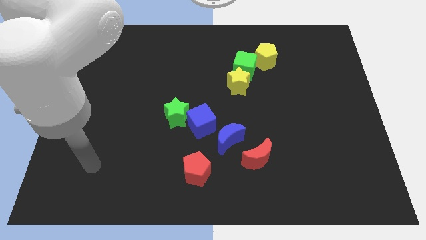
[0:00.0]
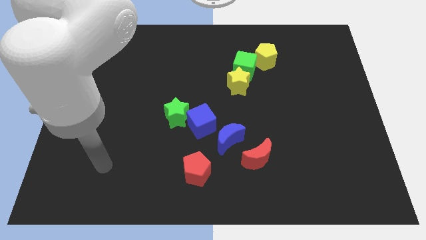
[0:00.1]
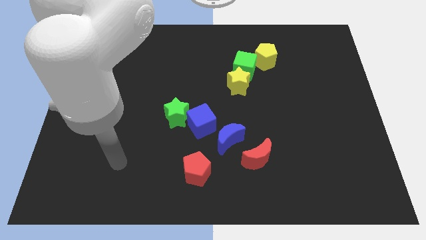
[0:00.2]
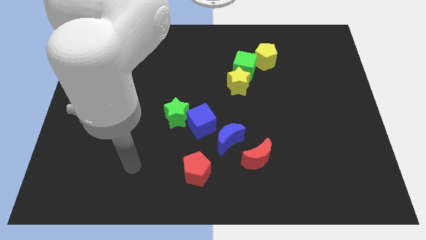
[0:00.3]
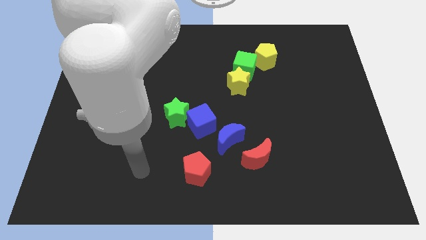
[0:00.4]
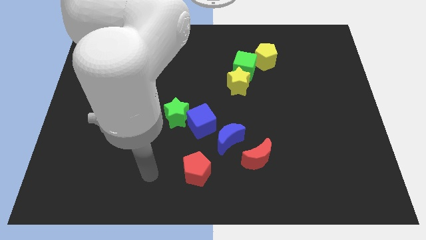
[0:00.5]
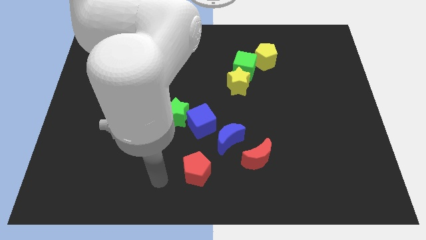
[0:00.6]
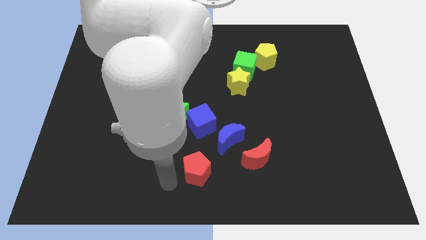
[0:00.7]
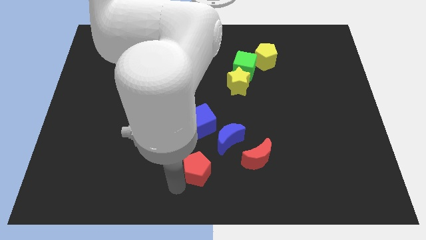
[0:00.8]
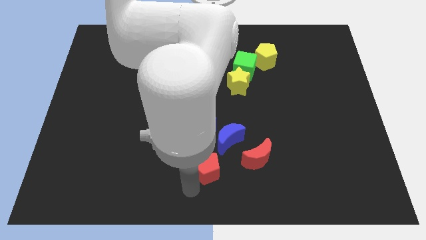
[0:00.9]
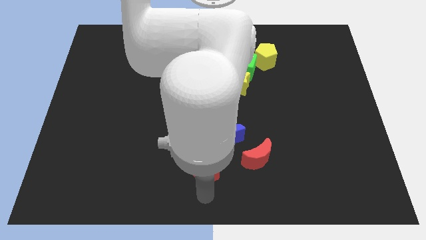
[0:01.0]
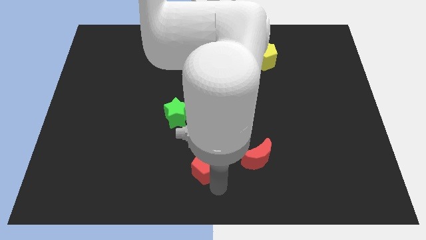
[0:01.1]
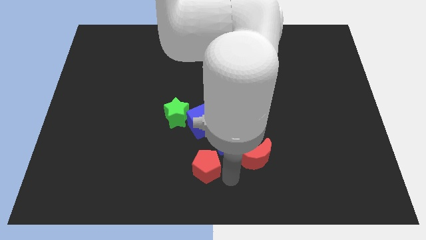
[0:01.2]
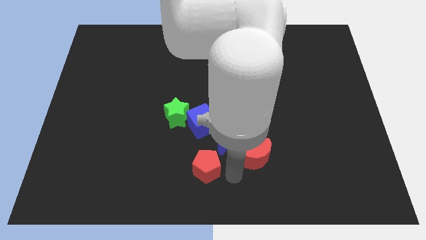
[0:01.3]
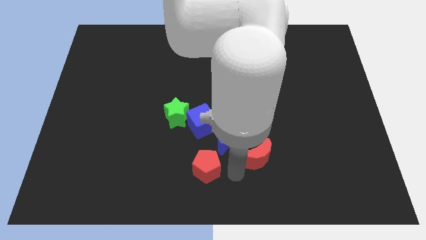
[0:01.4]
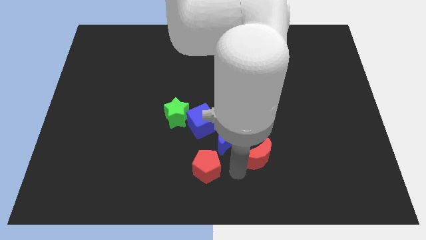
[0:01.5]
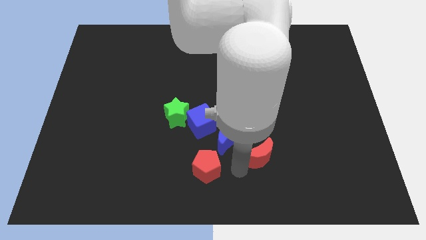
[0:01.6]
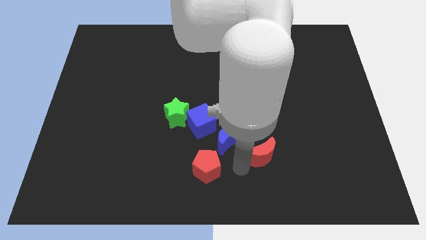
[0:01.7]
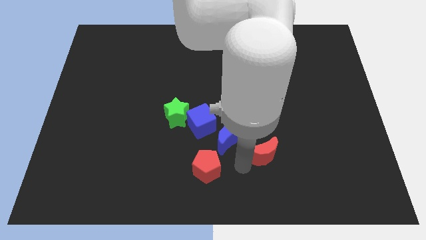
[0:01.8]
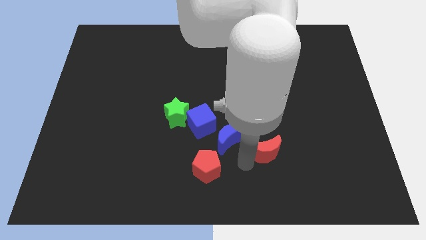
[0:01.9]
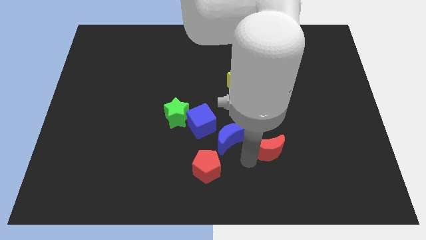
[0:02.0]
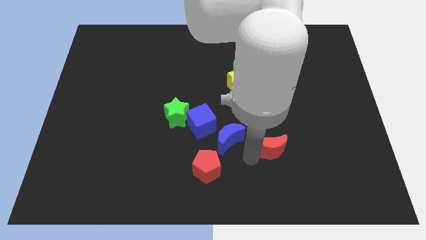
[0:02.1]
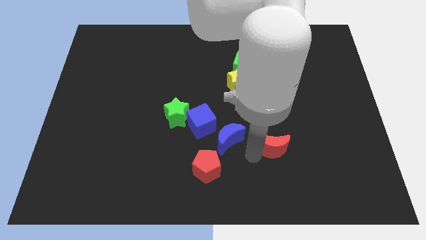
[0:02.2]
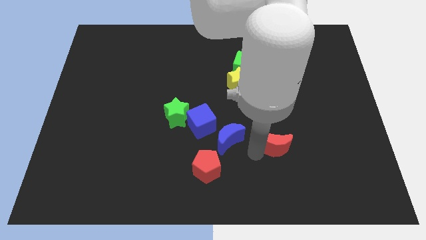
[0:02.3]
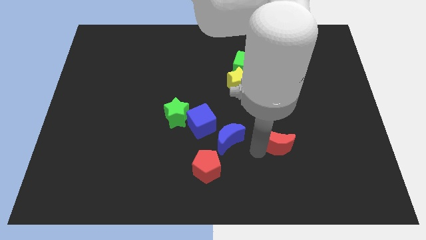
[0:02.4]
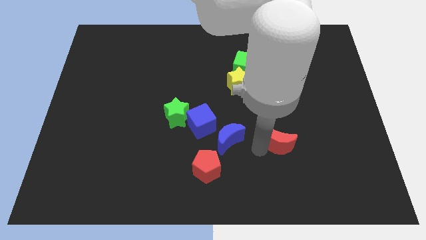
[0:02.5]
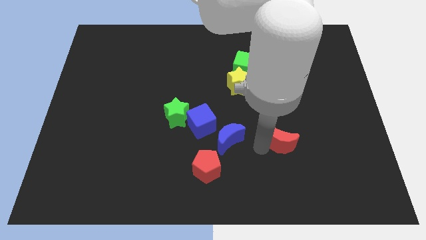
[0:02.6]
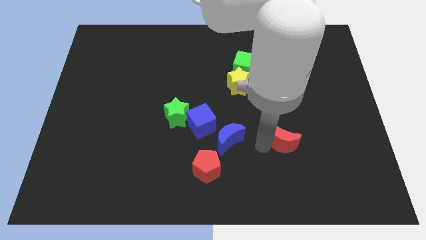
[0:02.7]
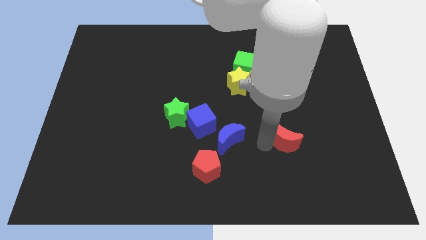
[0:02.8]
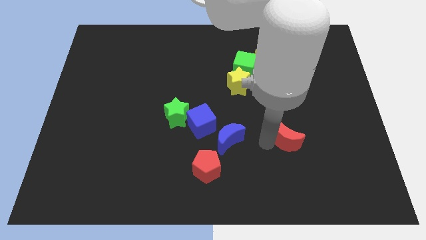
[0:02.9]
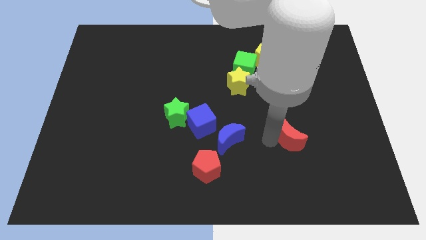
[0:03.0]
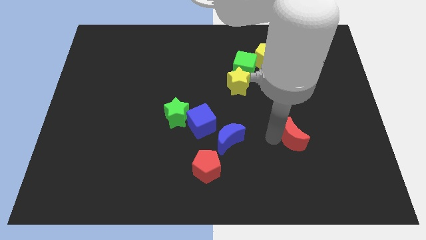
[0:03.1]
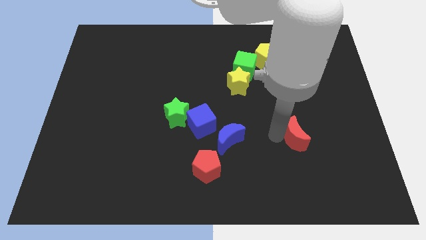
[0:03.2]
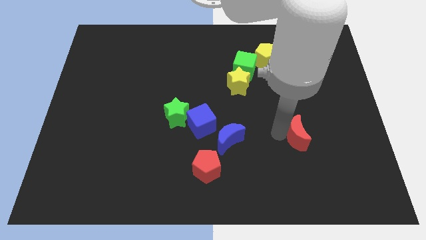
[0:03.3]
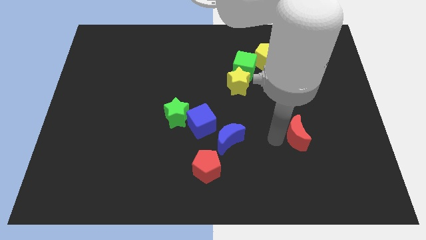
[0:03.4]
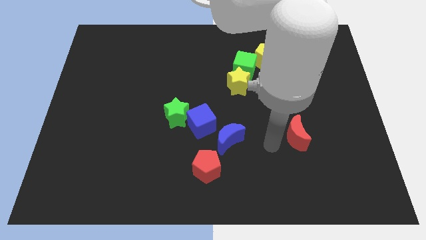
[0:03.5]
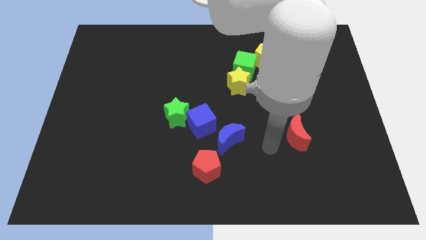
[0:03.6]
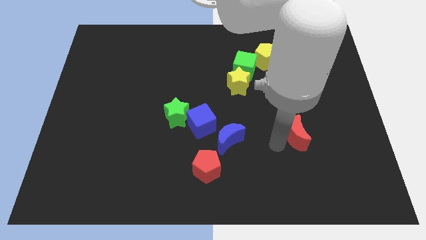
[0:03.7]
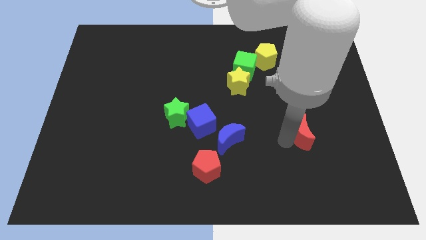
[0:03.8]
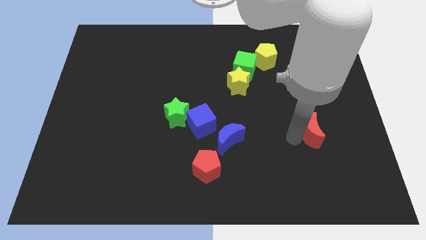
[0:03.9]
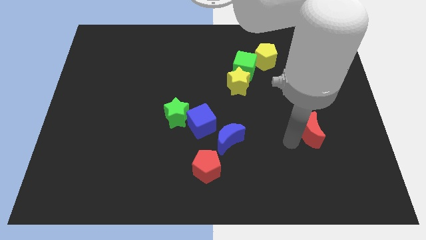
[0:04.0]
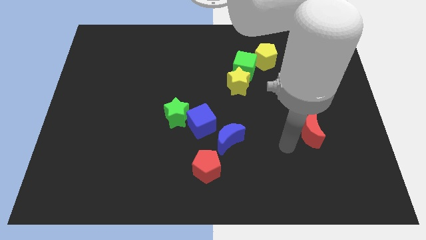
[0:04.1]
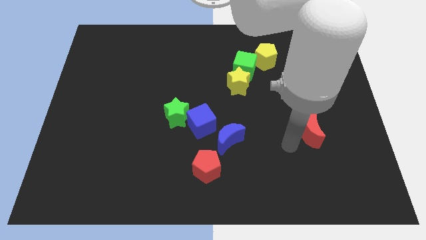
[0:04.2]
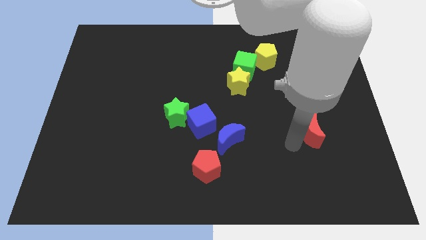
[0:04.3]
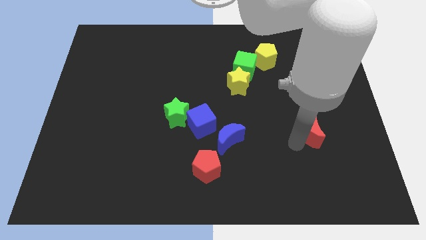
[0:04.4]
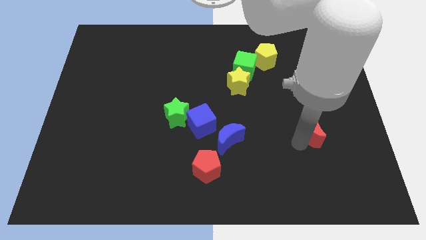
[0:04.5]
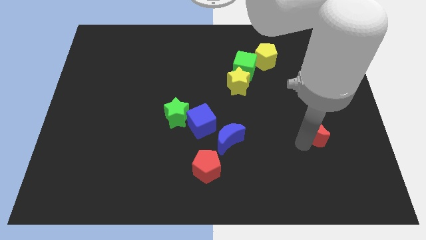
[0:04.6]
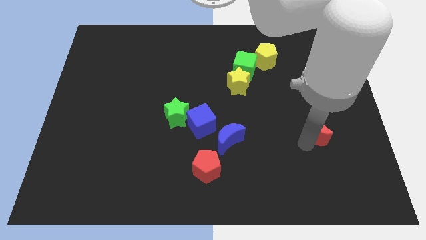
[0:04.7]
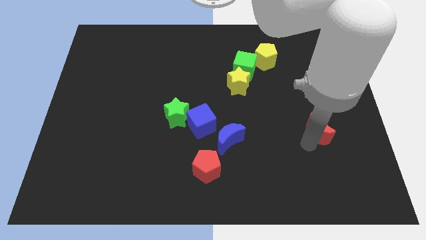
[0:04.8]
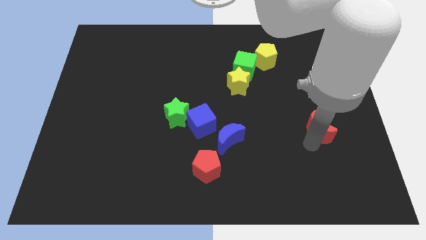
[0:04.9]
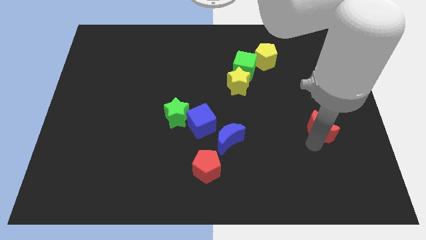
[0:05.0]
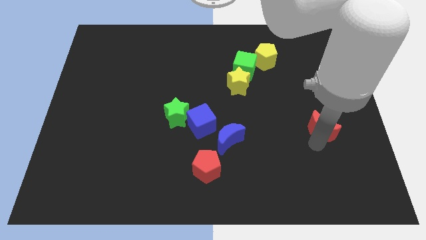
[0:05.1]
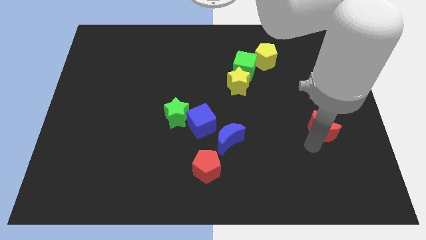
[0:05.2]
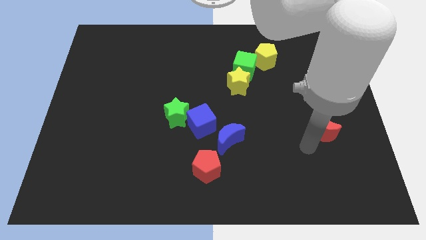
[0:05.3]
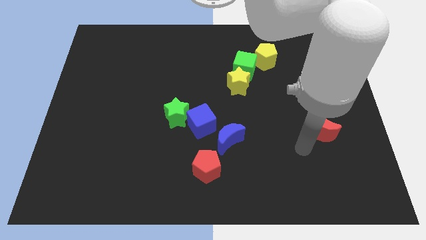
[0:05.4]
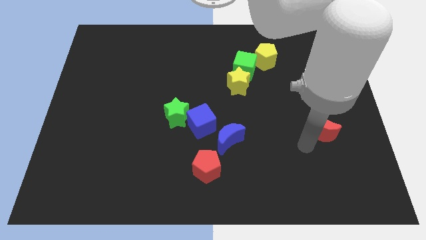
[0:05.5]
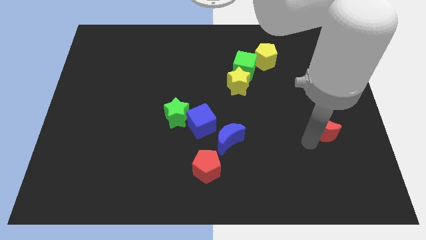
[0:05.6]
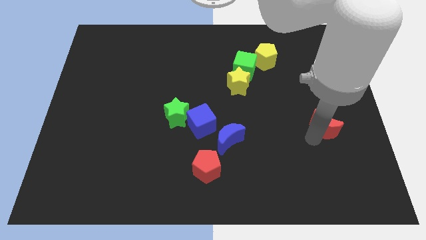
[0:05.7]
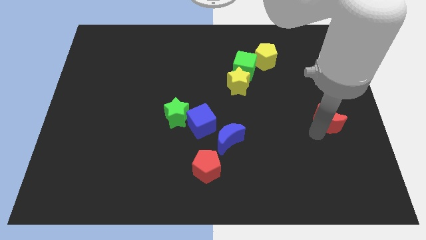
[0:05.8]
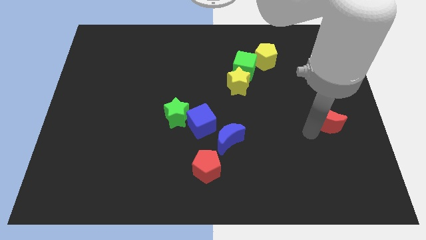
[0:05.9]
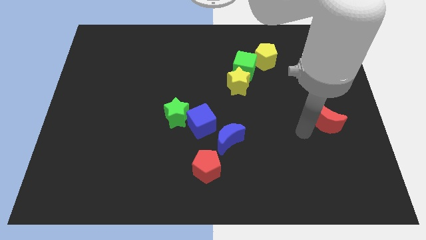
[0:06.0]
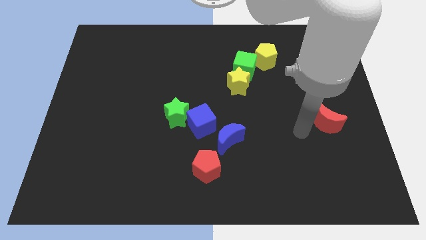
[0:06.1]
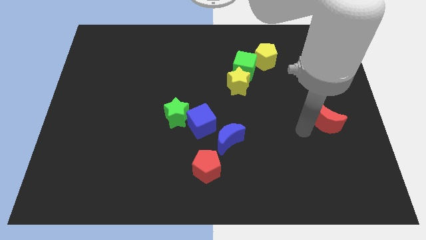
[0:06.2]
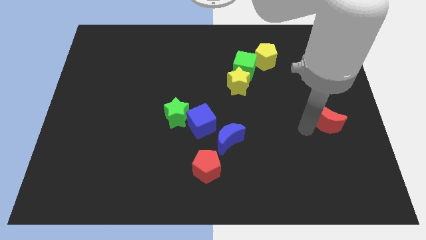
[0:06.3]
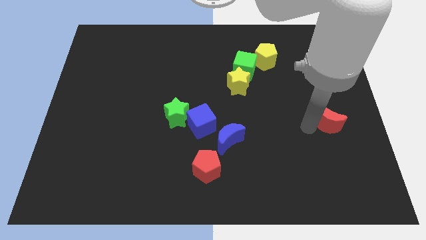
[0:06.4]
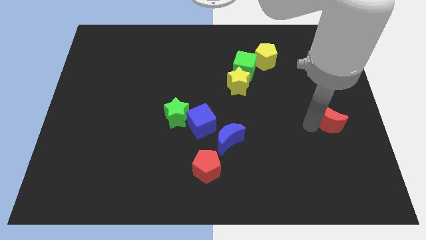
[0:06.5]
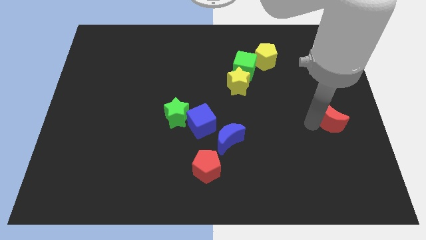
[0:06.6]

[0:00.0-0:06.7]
push the red moon to the center right

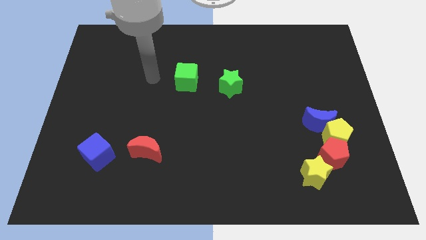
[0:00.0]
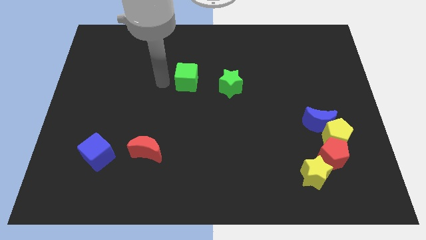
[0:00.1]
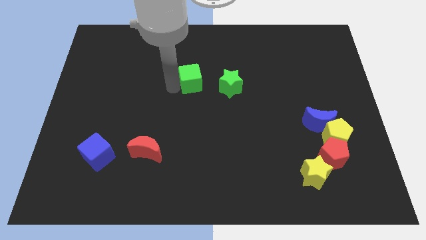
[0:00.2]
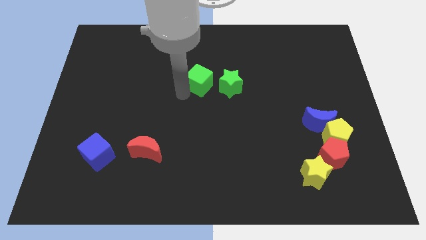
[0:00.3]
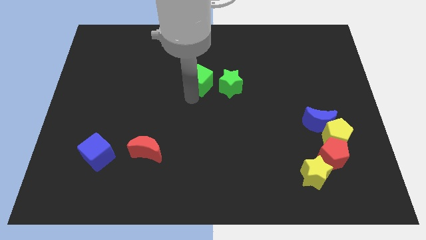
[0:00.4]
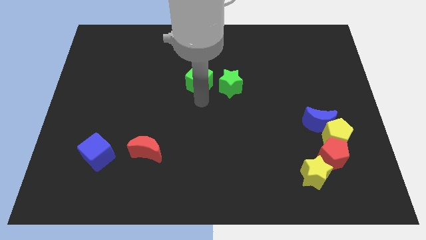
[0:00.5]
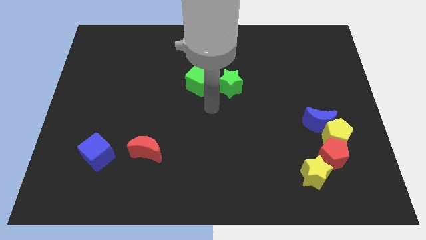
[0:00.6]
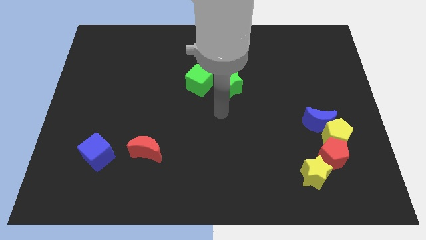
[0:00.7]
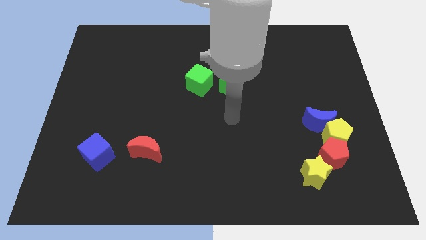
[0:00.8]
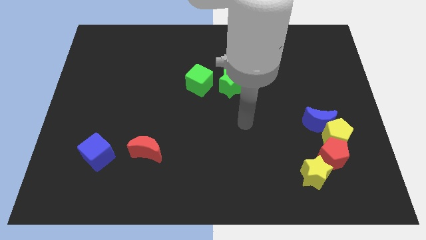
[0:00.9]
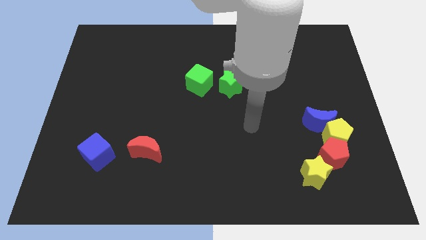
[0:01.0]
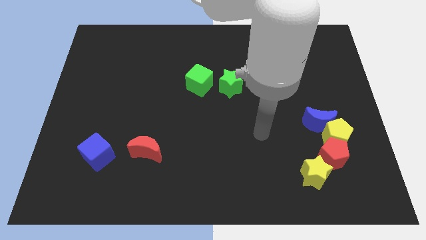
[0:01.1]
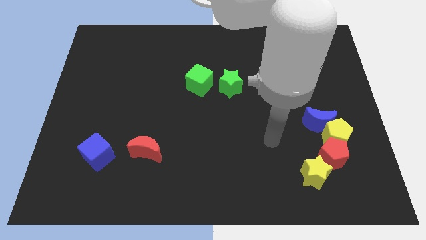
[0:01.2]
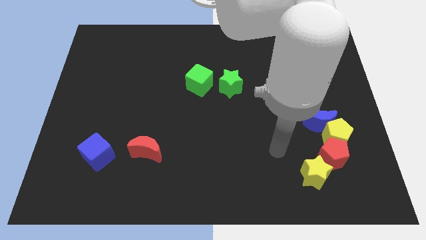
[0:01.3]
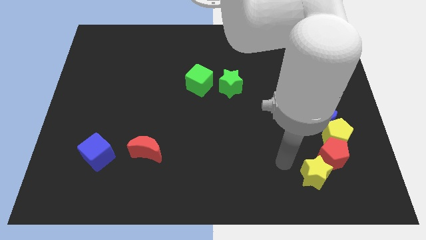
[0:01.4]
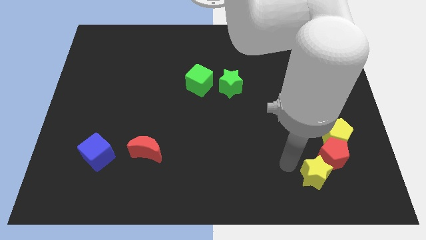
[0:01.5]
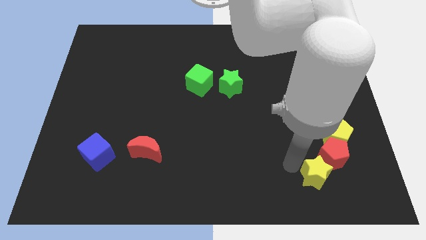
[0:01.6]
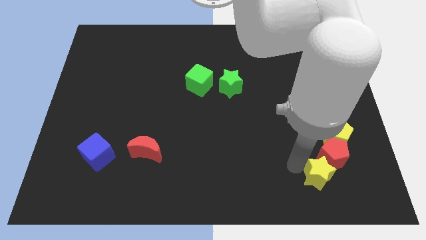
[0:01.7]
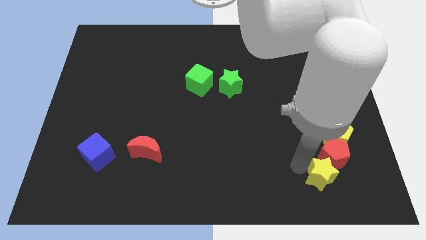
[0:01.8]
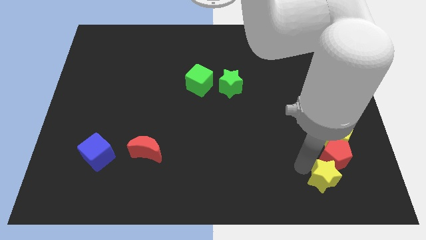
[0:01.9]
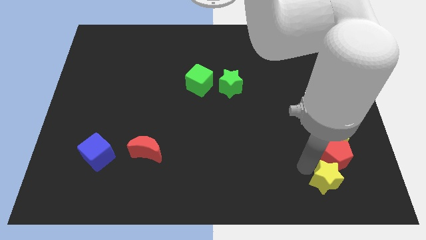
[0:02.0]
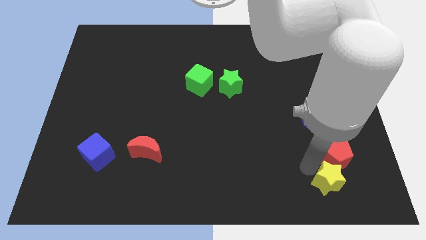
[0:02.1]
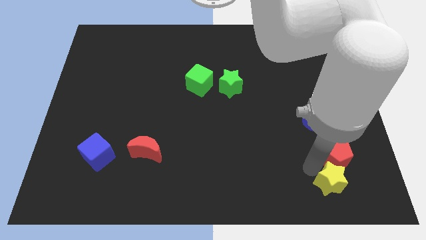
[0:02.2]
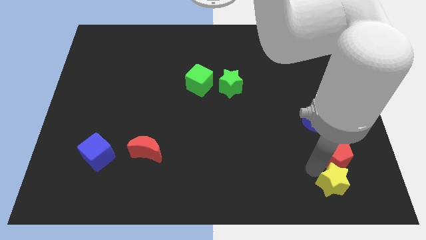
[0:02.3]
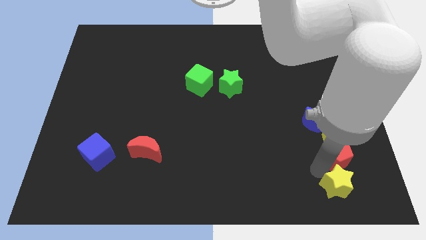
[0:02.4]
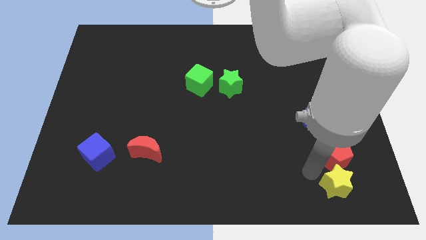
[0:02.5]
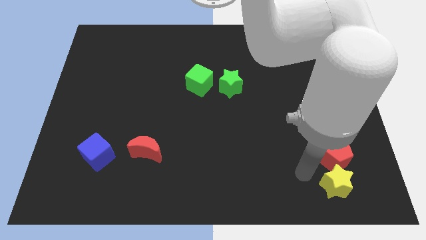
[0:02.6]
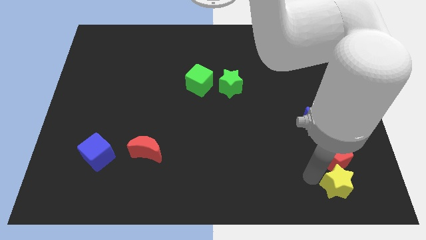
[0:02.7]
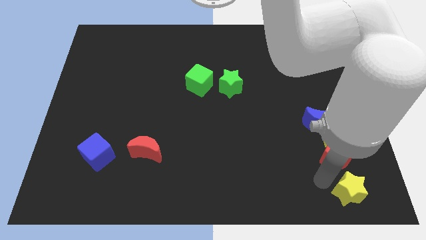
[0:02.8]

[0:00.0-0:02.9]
put the yellow star to the lower right corner
